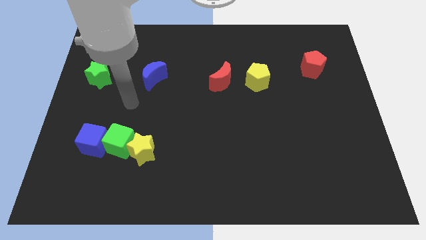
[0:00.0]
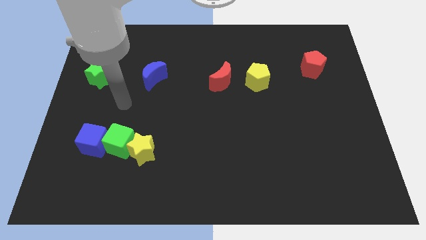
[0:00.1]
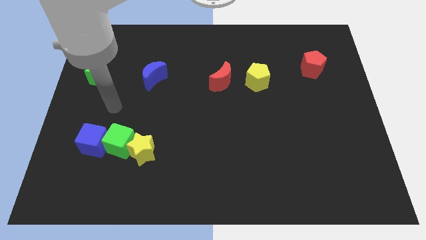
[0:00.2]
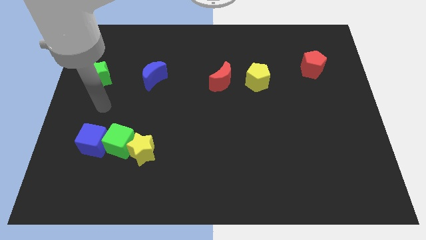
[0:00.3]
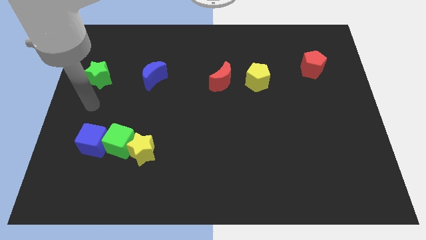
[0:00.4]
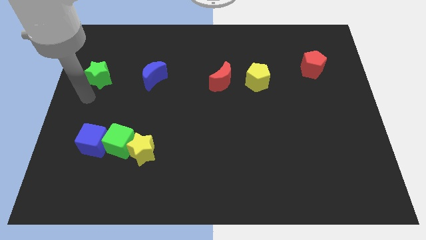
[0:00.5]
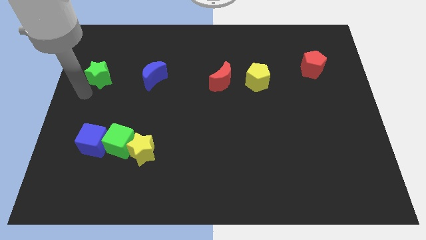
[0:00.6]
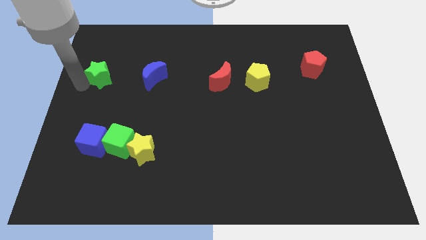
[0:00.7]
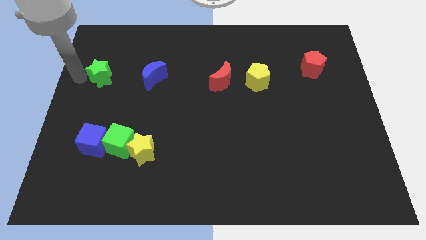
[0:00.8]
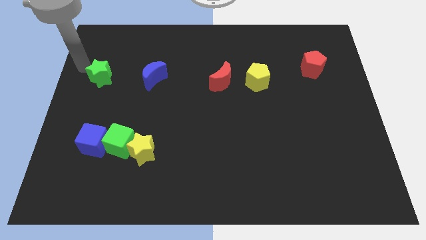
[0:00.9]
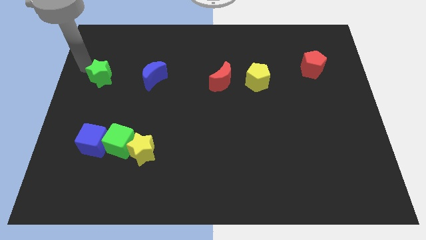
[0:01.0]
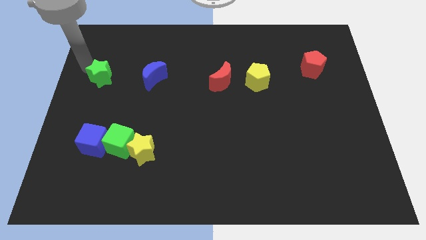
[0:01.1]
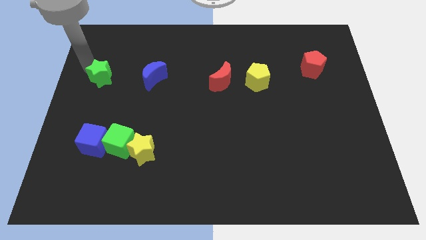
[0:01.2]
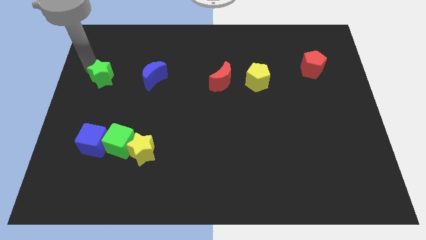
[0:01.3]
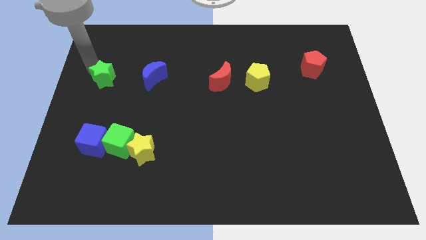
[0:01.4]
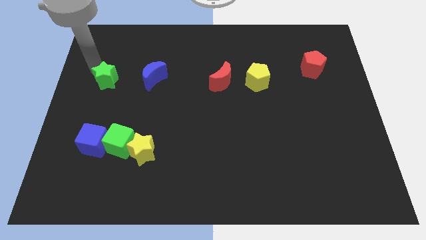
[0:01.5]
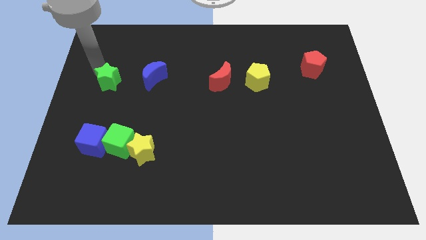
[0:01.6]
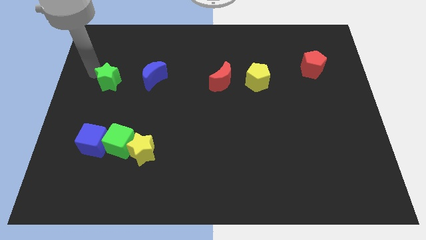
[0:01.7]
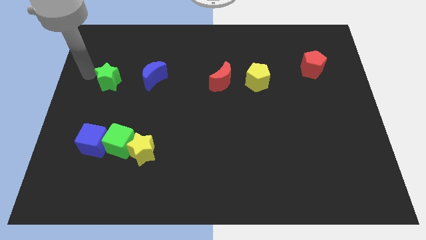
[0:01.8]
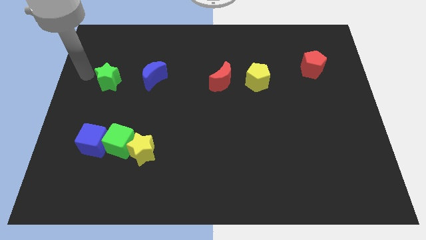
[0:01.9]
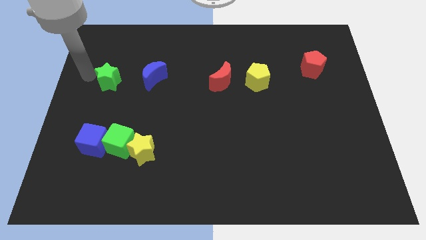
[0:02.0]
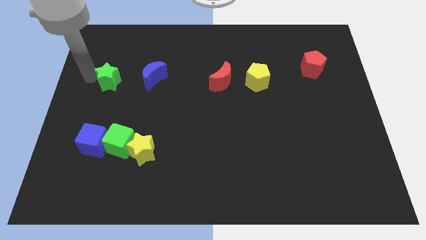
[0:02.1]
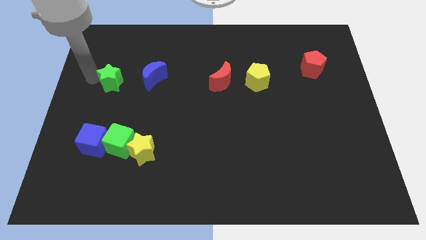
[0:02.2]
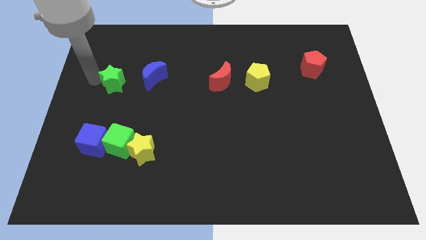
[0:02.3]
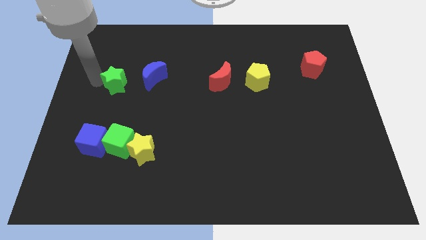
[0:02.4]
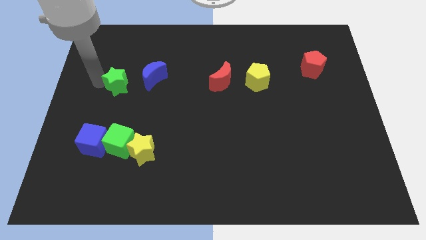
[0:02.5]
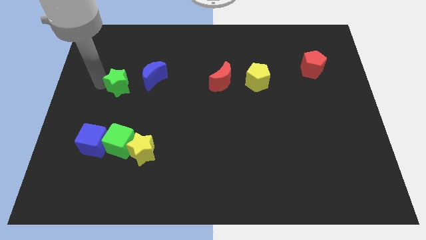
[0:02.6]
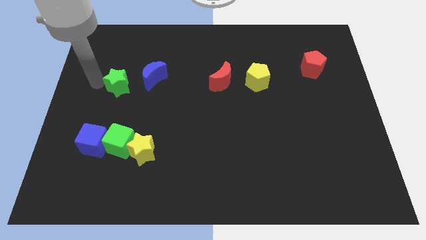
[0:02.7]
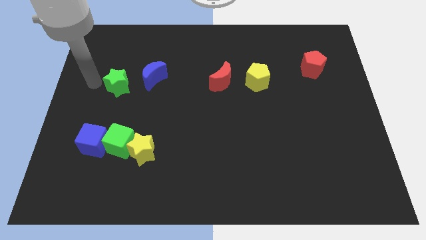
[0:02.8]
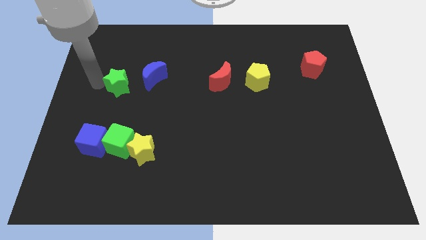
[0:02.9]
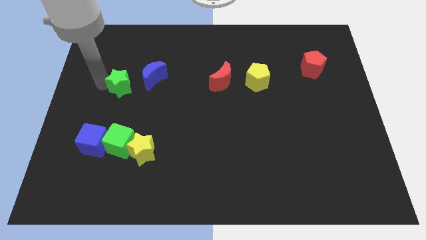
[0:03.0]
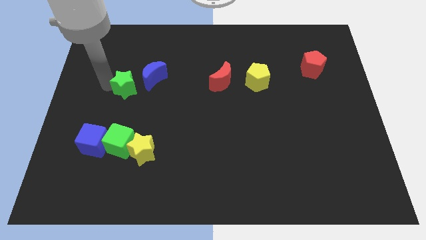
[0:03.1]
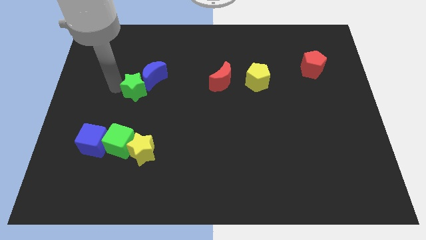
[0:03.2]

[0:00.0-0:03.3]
slightly move the green star right

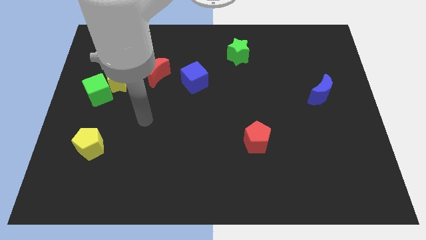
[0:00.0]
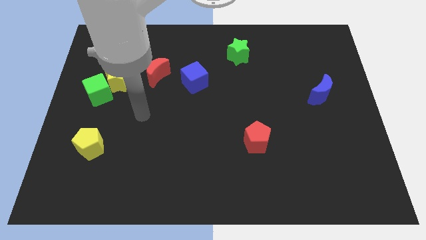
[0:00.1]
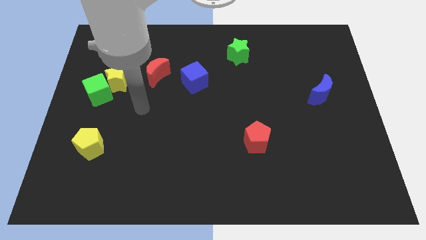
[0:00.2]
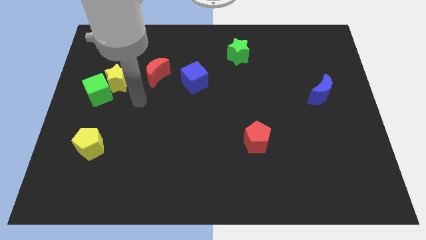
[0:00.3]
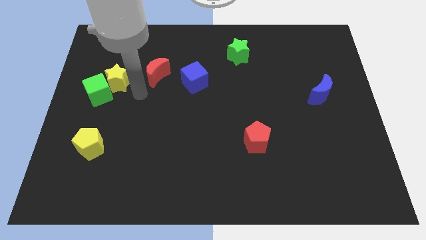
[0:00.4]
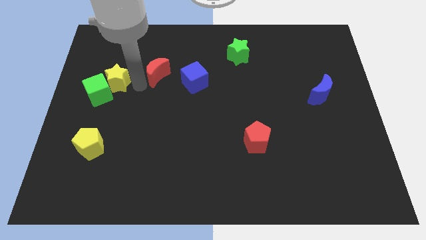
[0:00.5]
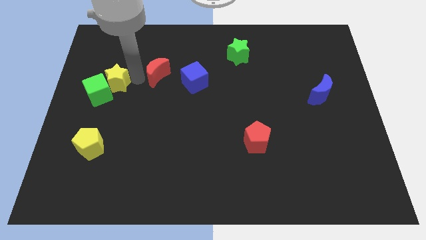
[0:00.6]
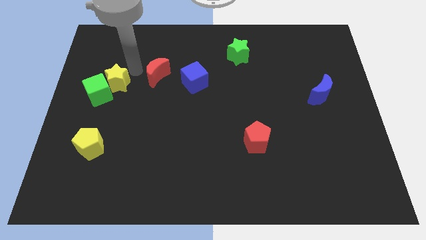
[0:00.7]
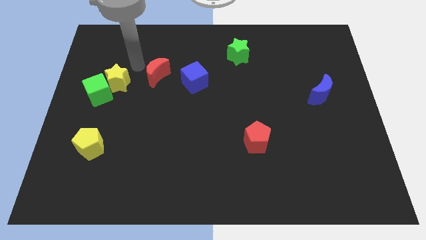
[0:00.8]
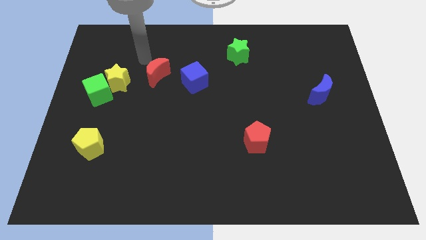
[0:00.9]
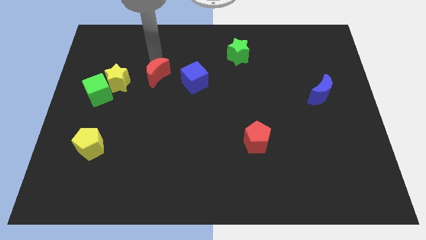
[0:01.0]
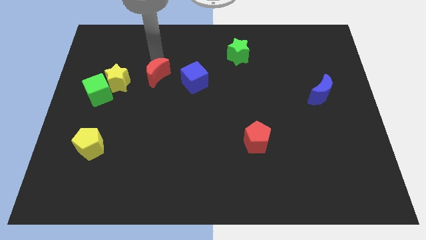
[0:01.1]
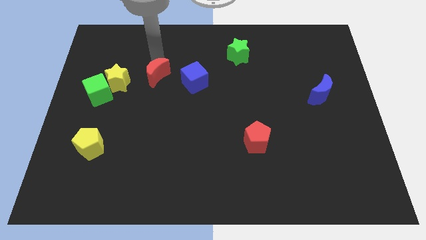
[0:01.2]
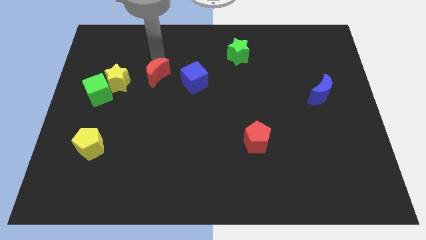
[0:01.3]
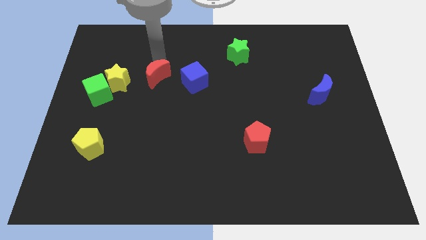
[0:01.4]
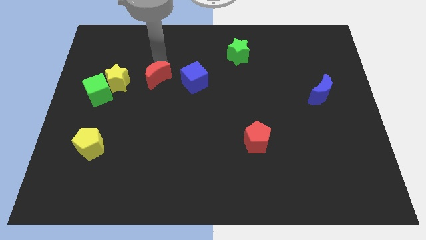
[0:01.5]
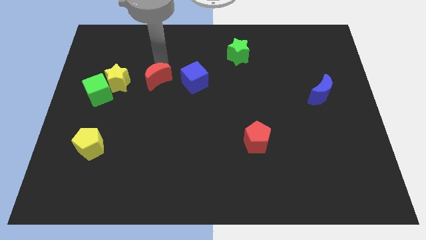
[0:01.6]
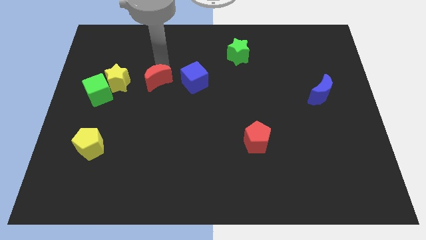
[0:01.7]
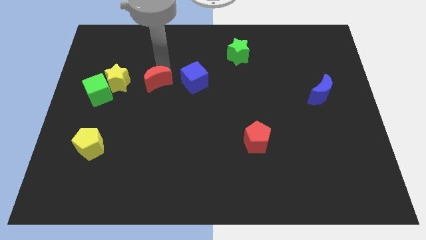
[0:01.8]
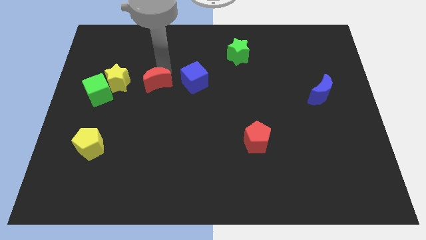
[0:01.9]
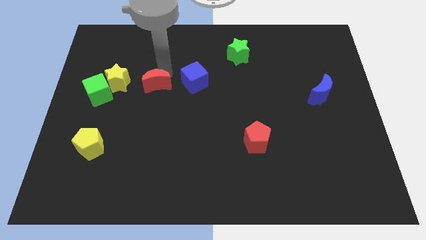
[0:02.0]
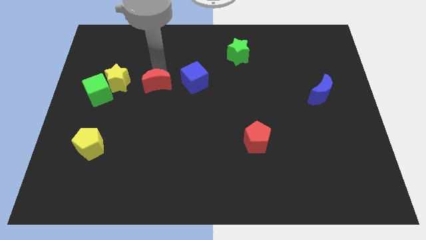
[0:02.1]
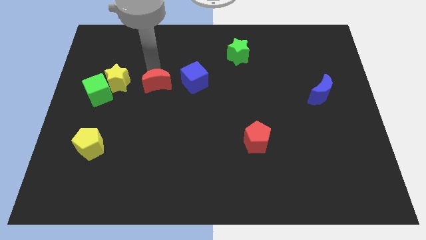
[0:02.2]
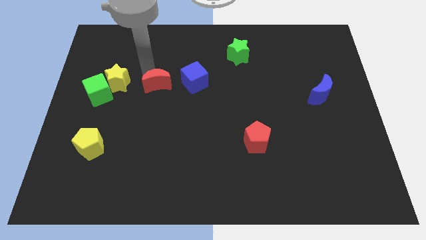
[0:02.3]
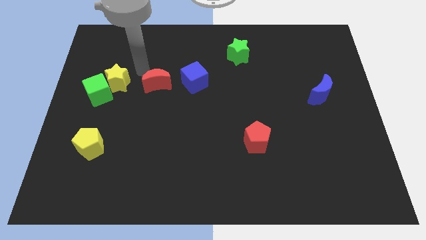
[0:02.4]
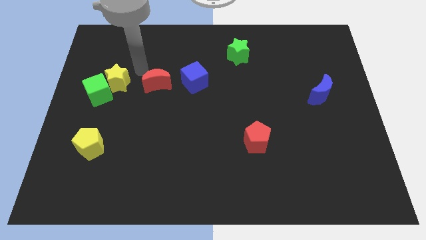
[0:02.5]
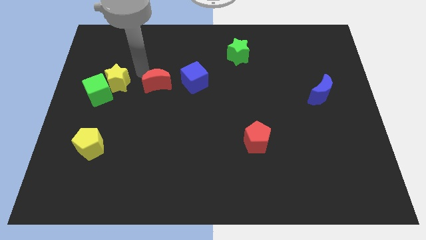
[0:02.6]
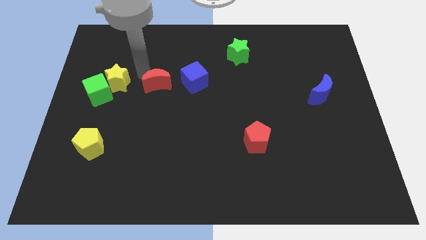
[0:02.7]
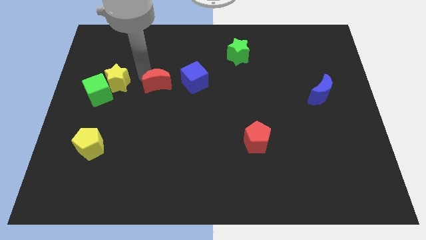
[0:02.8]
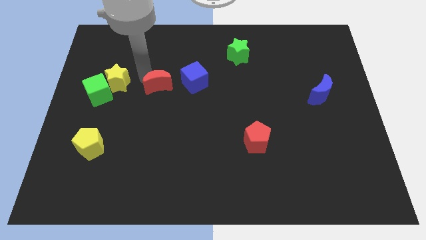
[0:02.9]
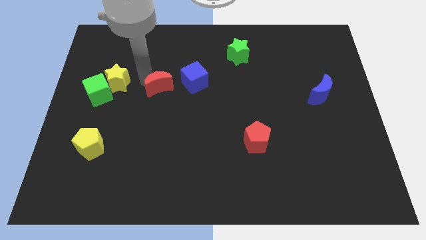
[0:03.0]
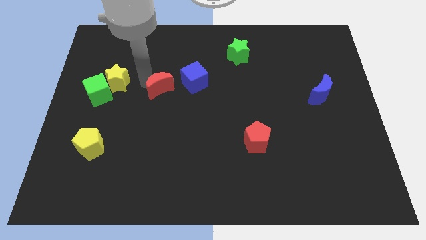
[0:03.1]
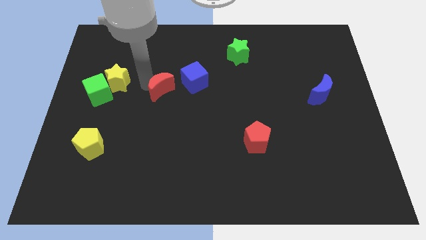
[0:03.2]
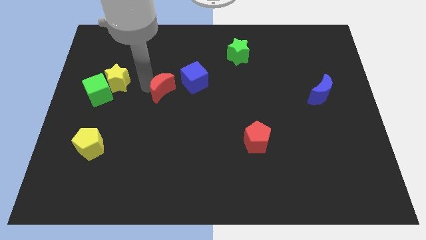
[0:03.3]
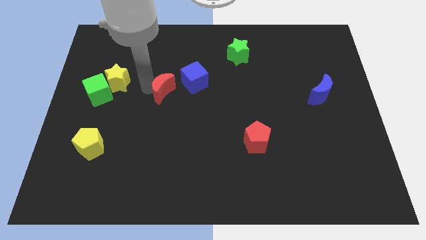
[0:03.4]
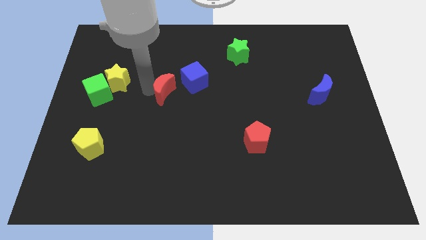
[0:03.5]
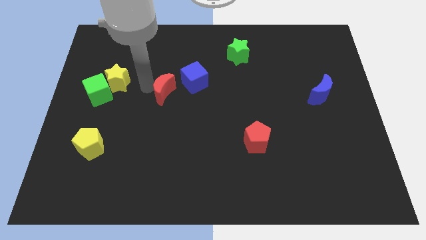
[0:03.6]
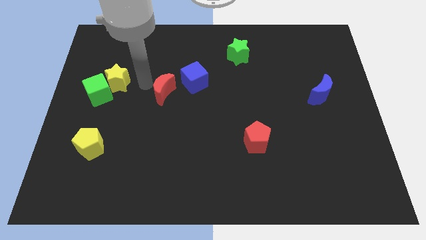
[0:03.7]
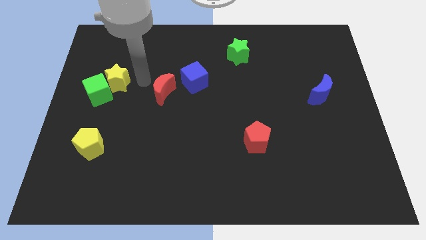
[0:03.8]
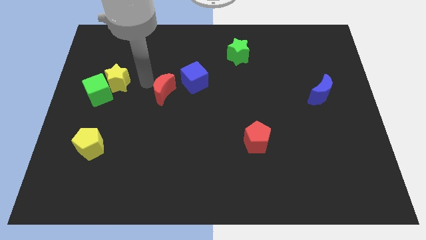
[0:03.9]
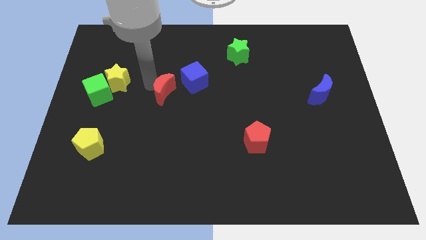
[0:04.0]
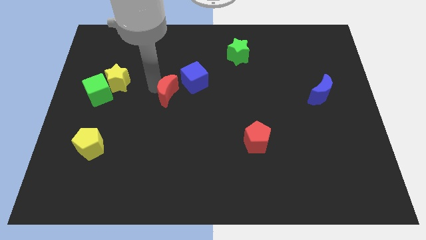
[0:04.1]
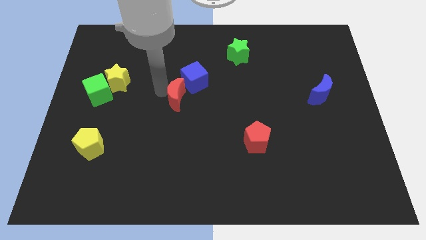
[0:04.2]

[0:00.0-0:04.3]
push the red moon down and to the right a bit

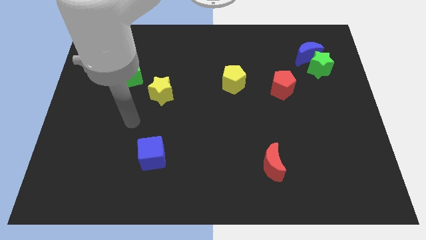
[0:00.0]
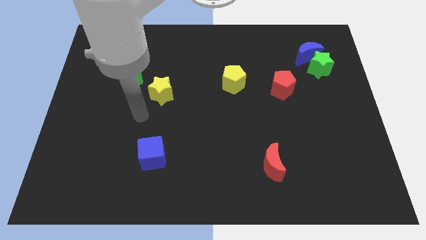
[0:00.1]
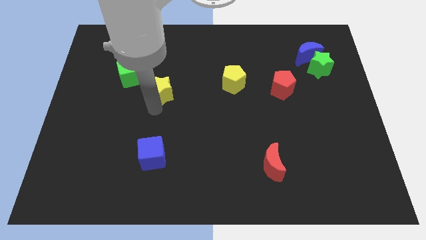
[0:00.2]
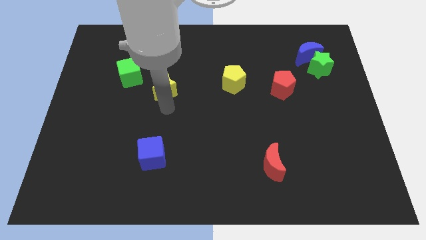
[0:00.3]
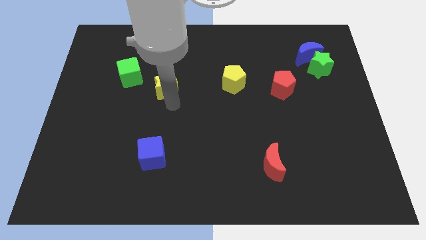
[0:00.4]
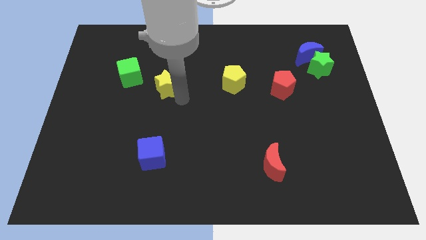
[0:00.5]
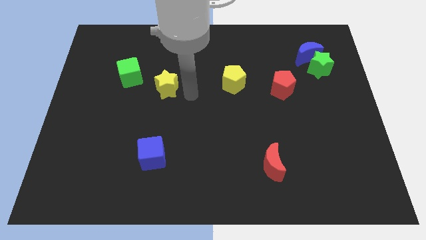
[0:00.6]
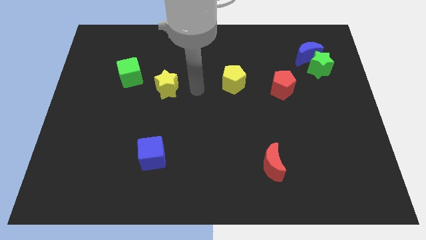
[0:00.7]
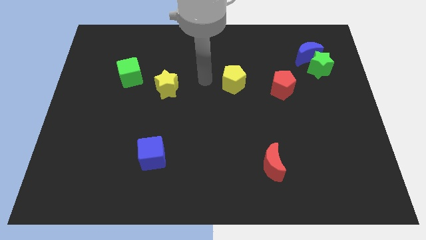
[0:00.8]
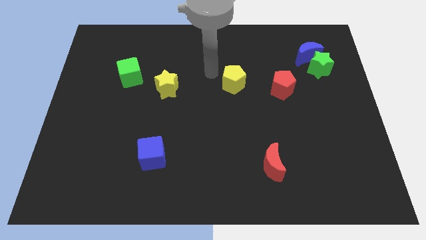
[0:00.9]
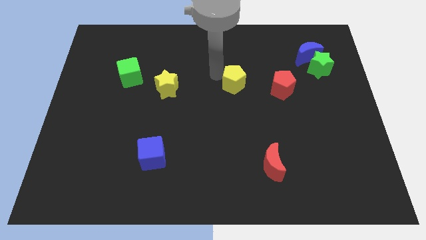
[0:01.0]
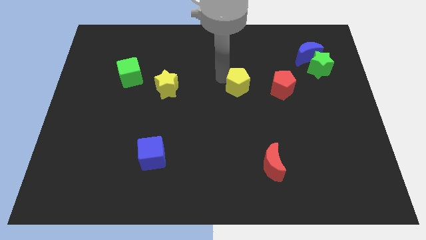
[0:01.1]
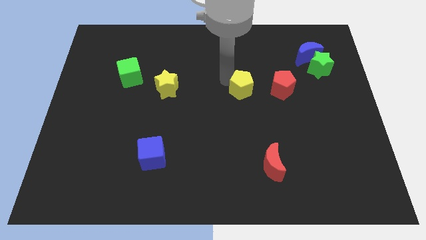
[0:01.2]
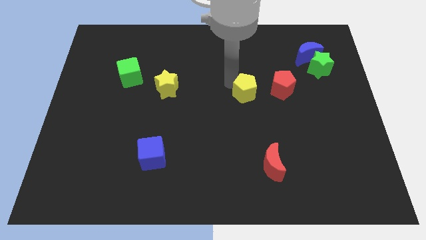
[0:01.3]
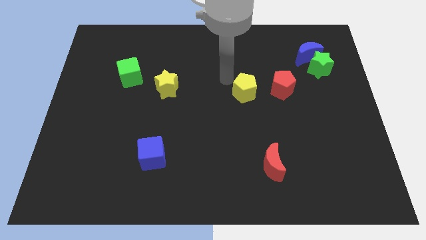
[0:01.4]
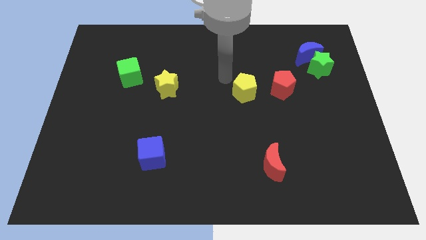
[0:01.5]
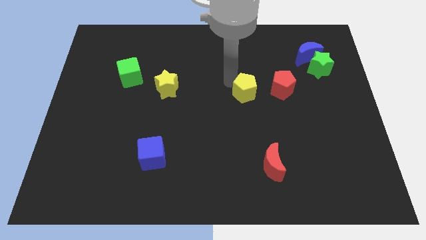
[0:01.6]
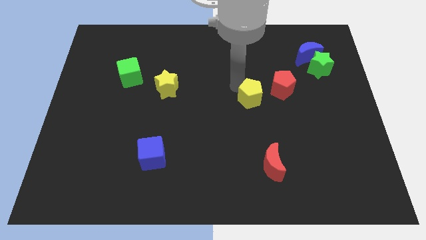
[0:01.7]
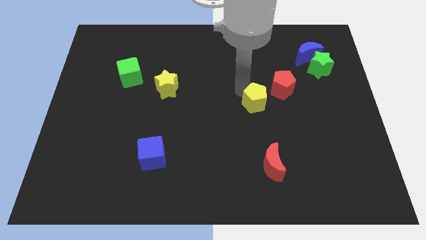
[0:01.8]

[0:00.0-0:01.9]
push the yellow pentagon a bit down and then right
